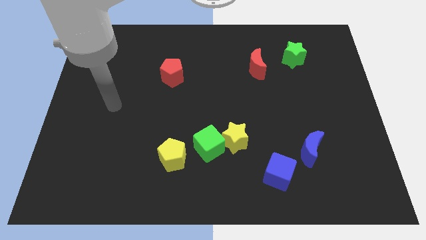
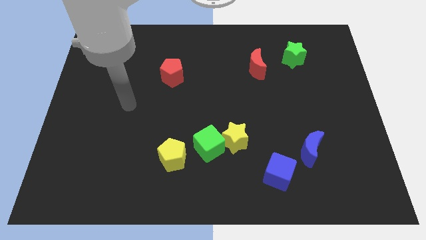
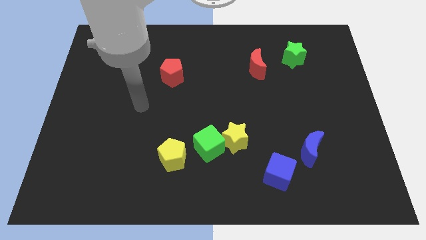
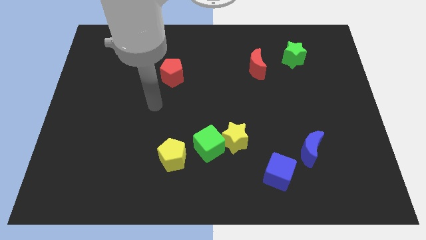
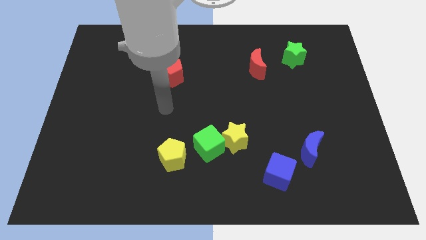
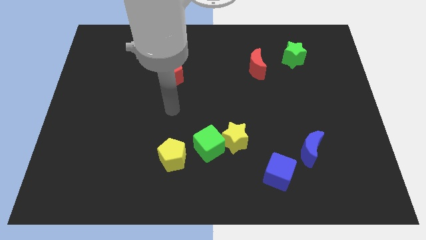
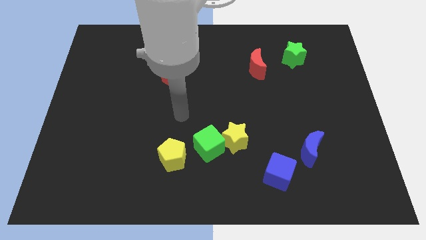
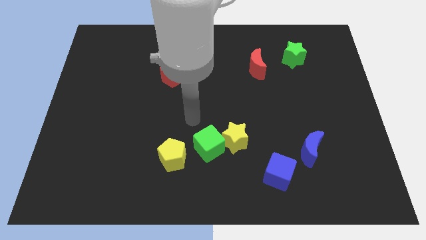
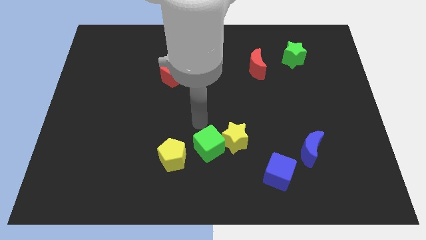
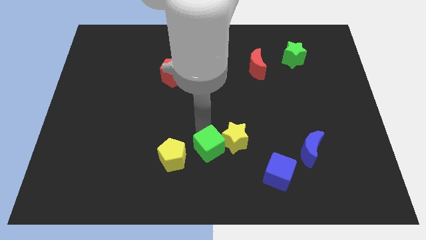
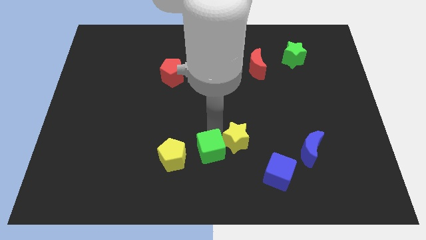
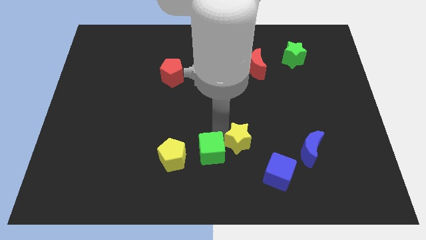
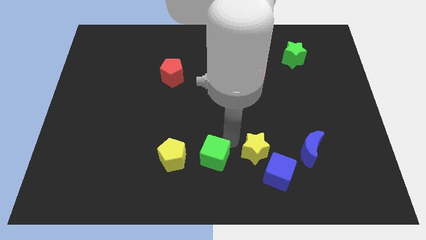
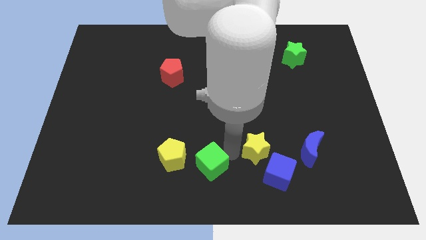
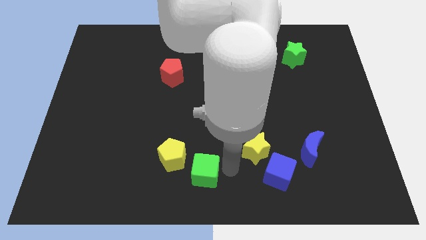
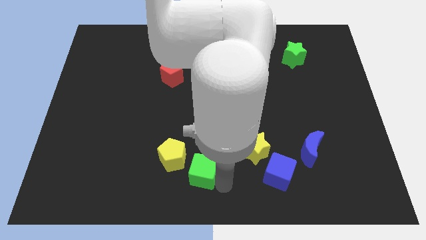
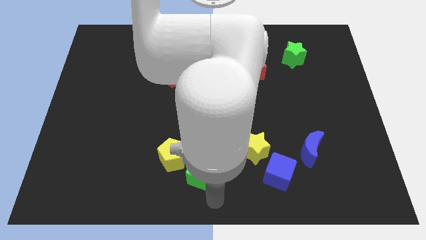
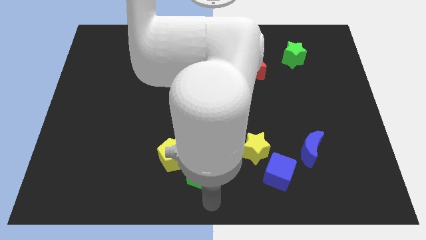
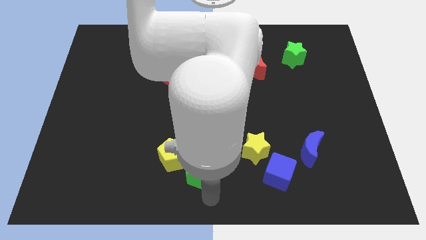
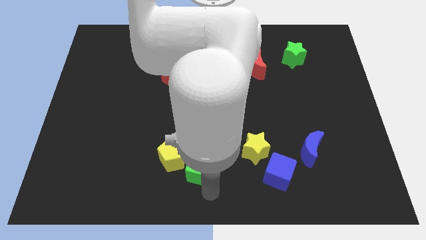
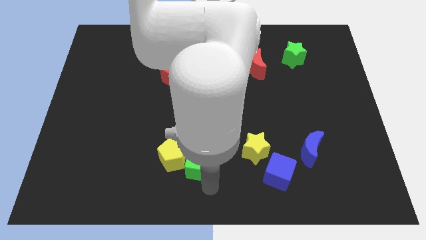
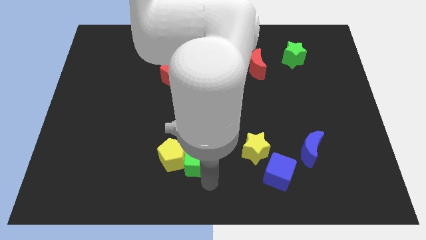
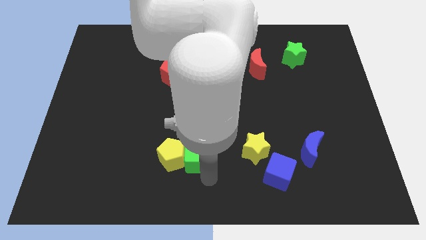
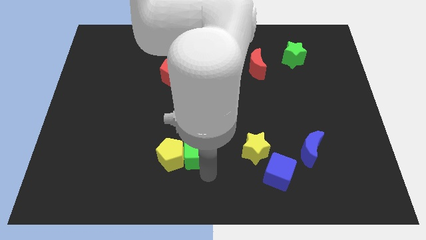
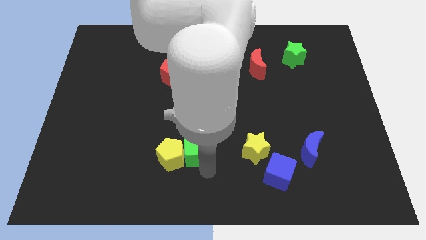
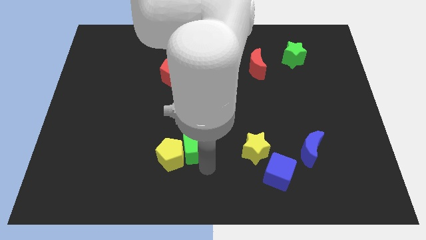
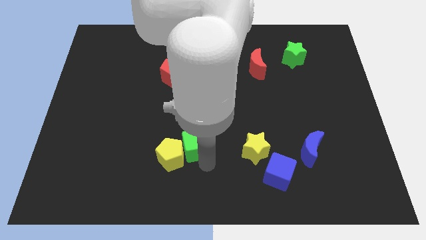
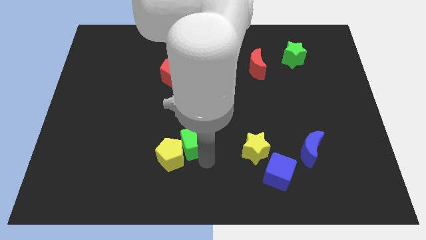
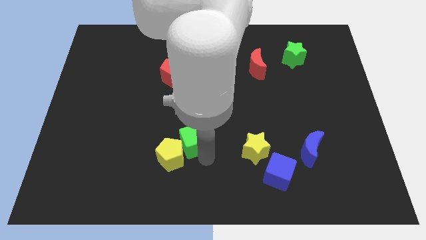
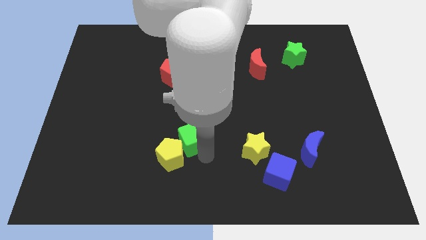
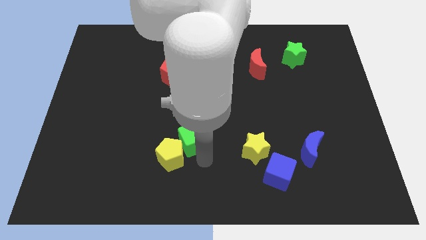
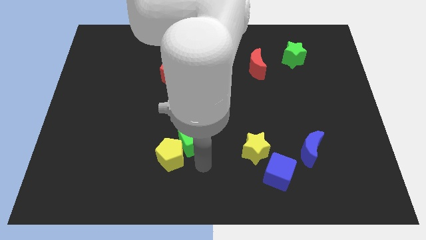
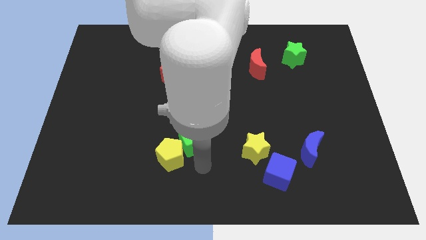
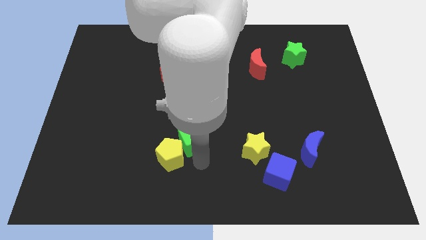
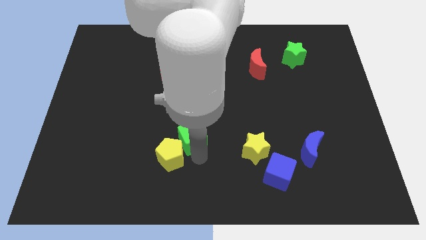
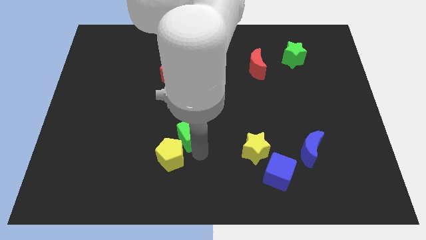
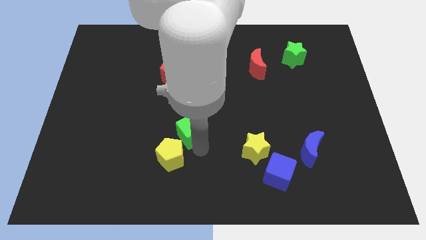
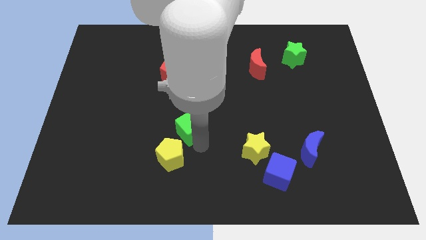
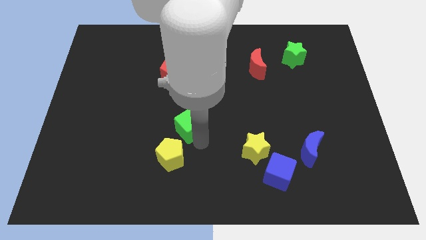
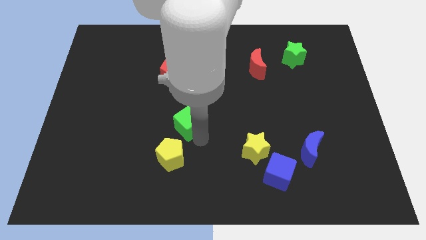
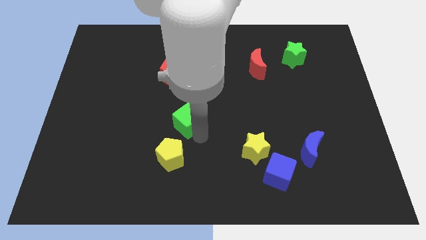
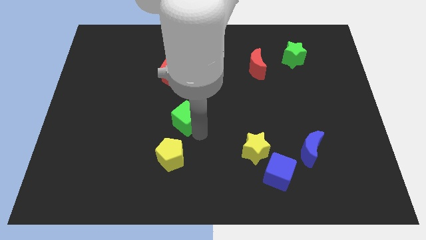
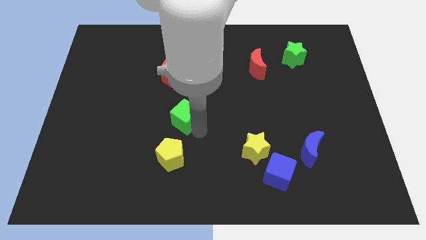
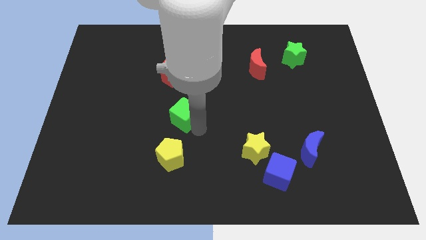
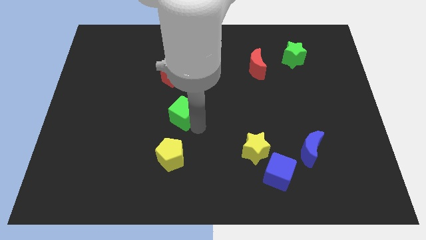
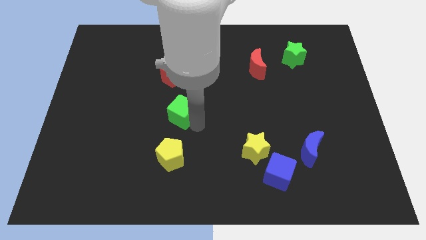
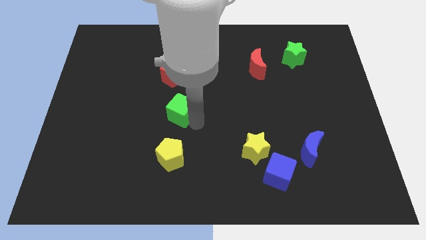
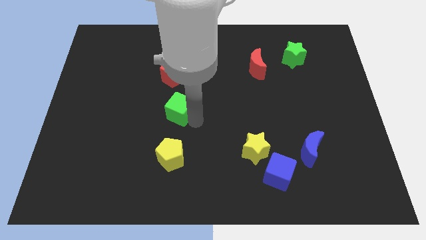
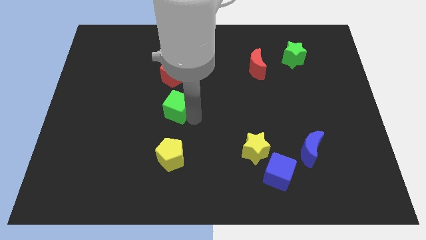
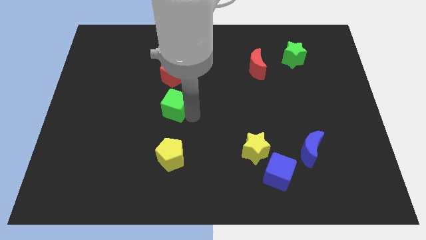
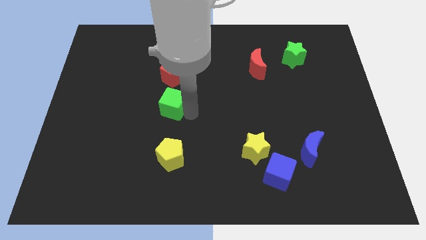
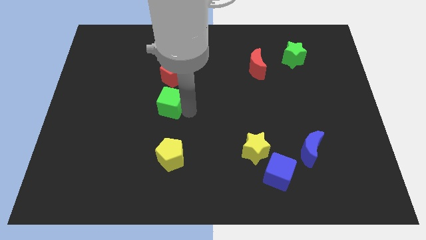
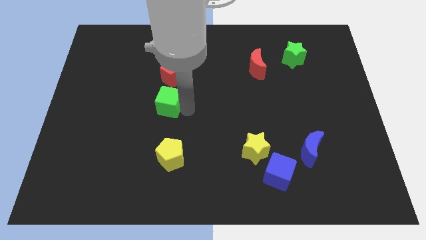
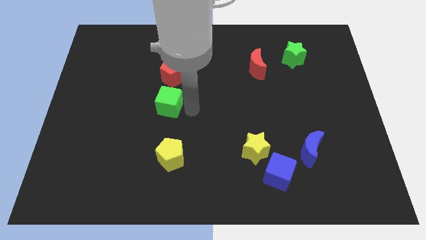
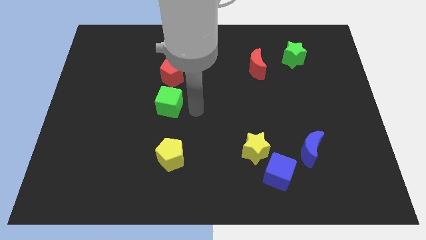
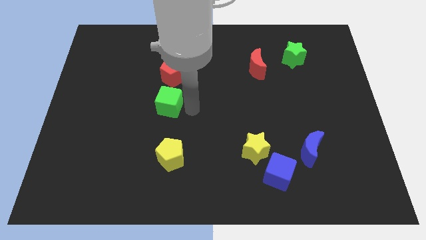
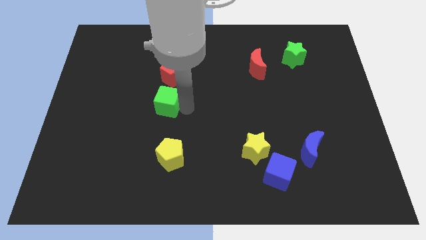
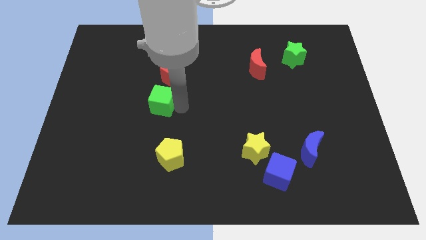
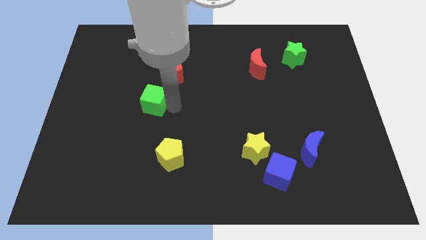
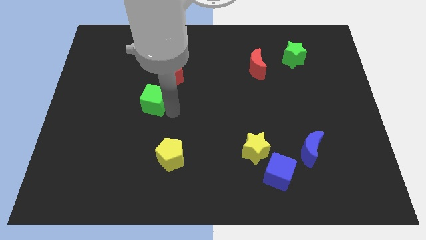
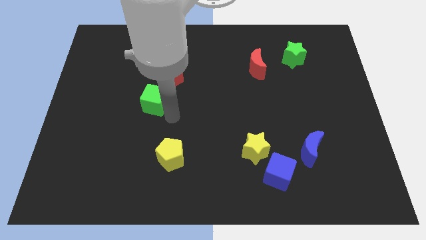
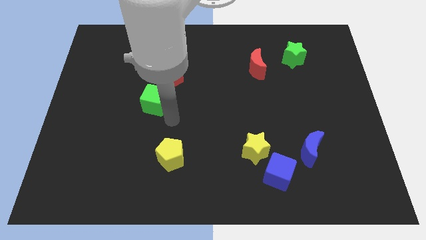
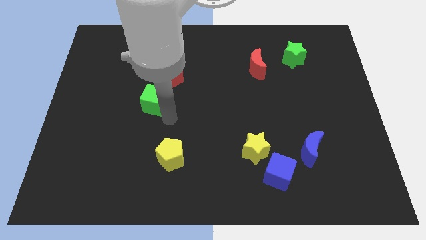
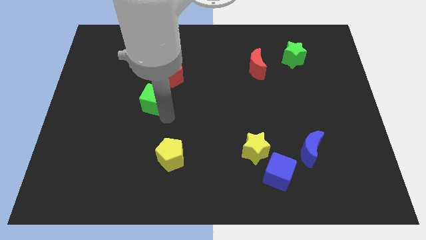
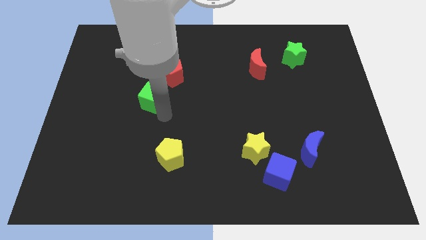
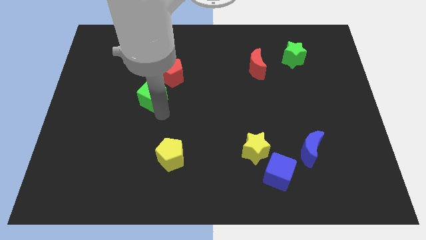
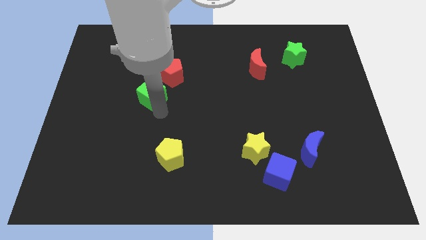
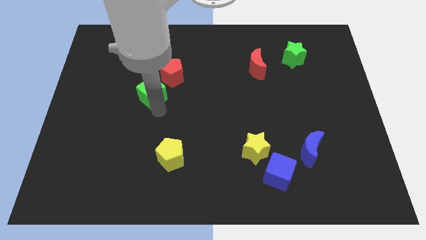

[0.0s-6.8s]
move the green cube up and then to the left

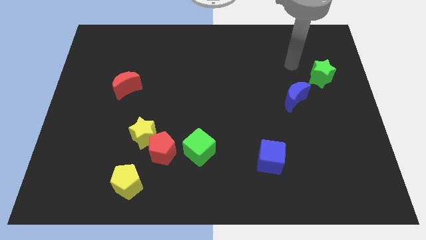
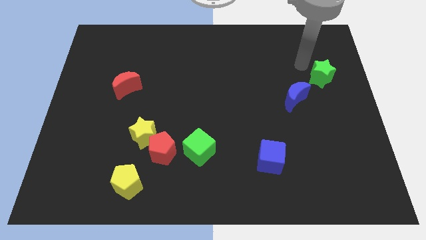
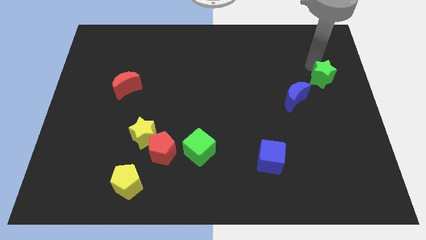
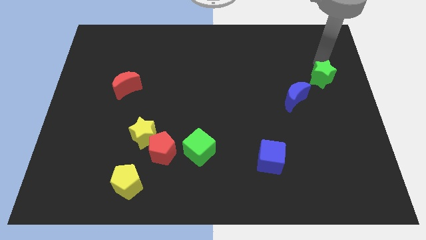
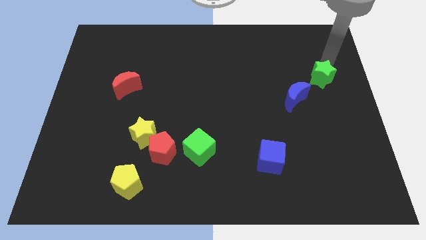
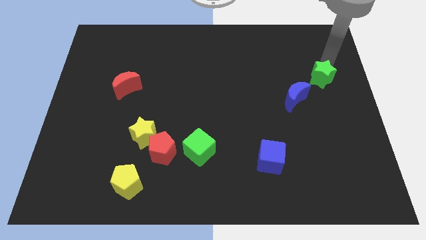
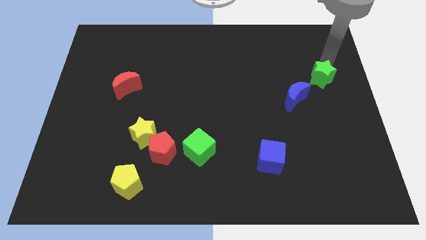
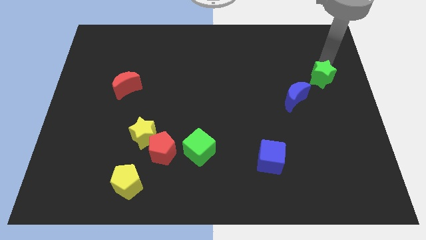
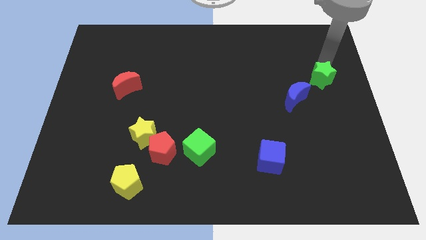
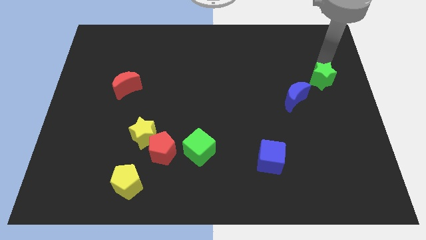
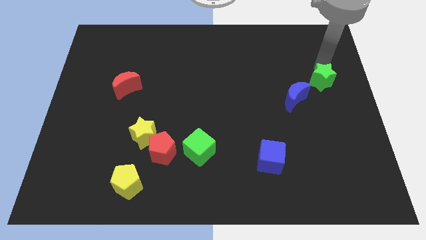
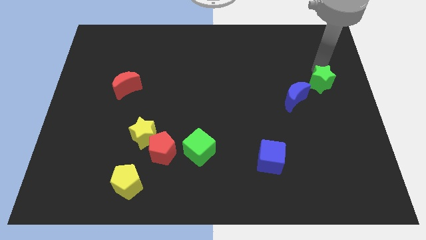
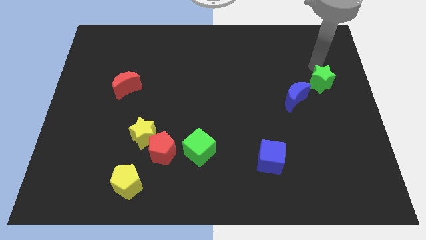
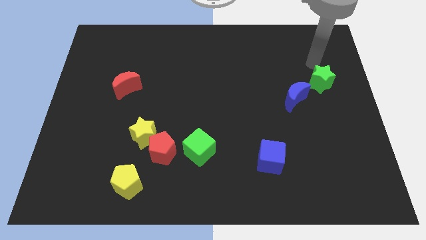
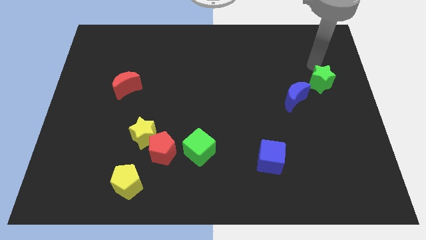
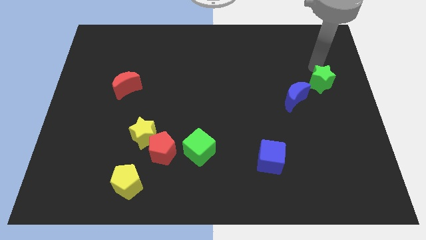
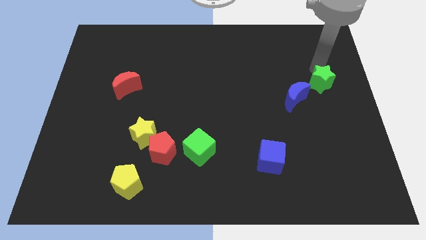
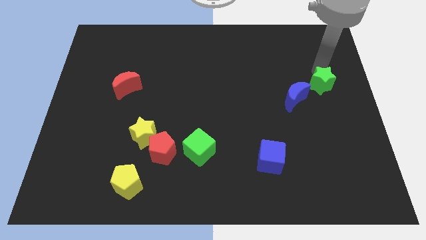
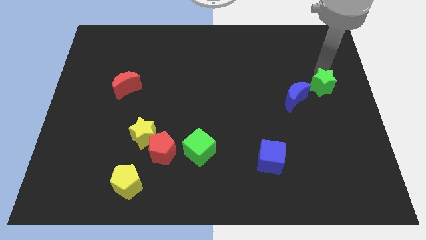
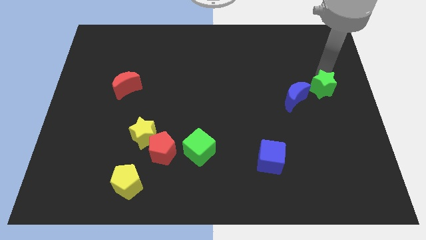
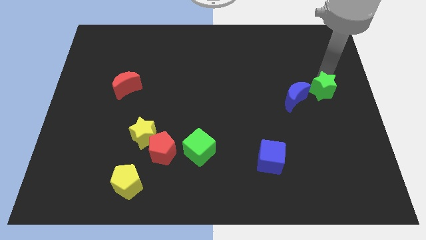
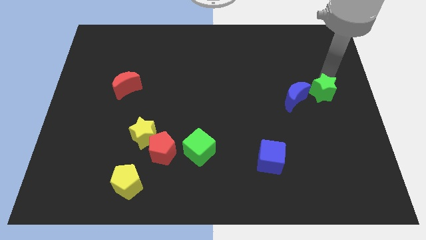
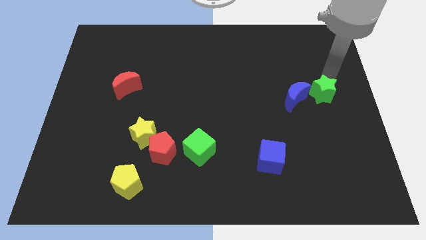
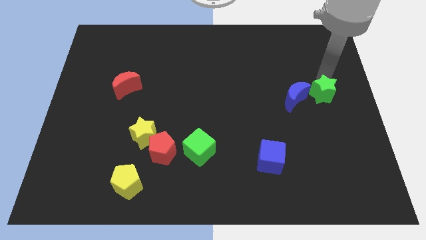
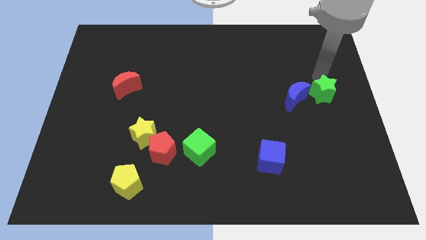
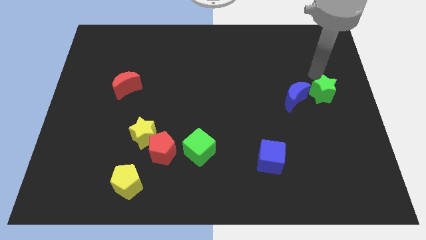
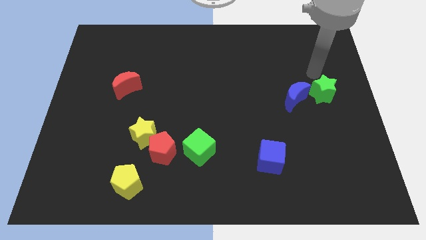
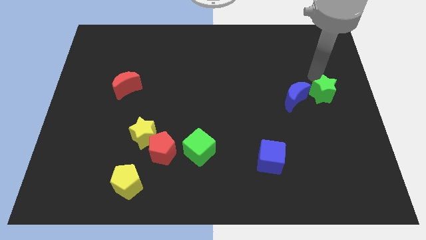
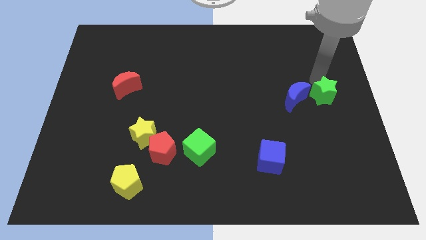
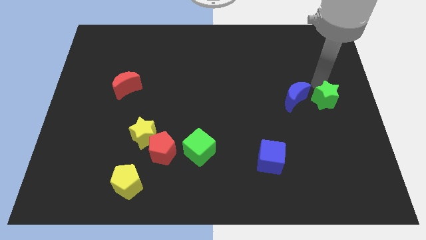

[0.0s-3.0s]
push the green star down slightly
